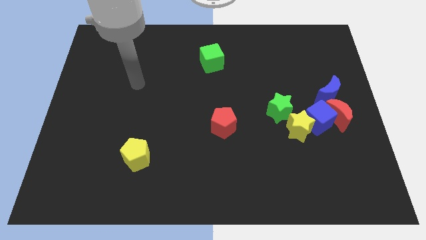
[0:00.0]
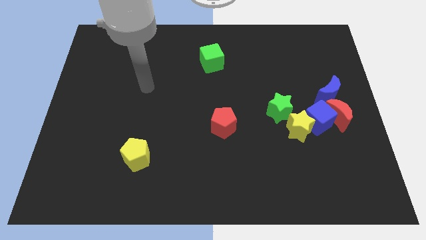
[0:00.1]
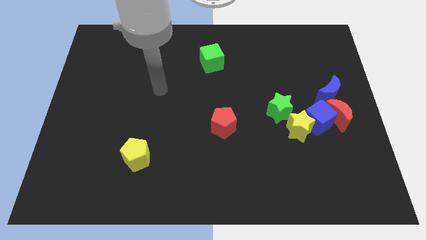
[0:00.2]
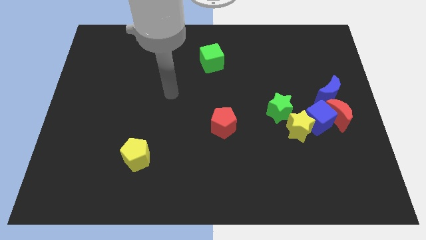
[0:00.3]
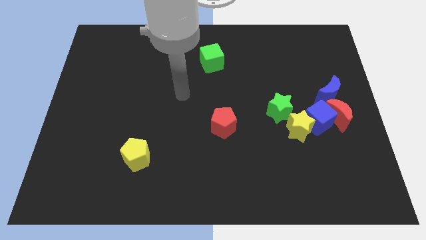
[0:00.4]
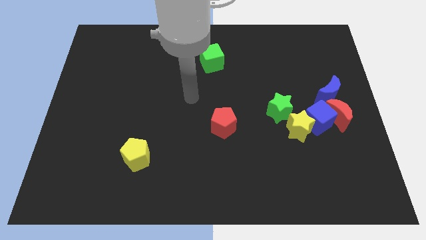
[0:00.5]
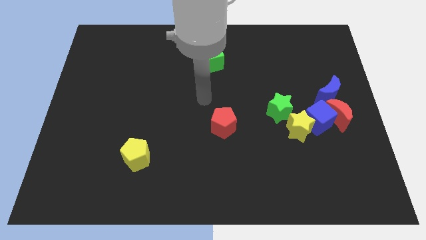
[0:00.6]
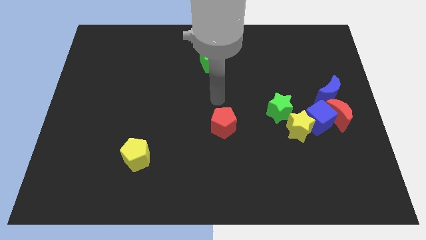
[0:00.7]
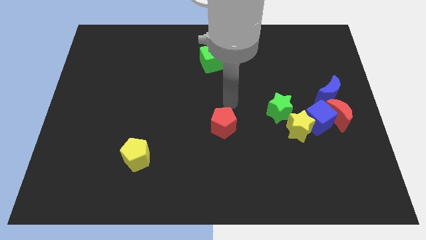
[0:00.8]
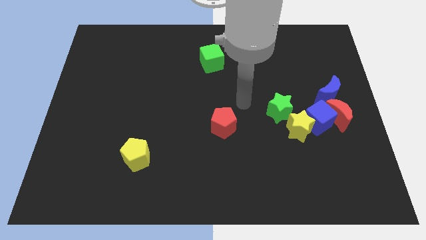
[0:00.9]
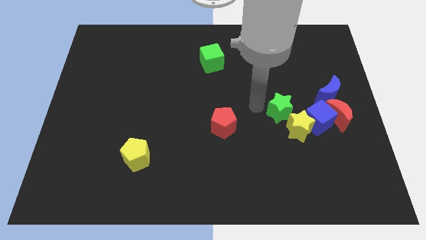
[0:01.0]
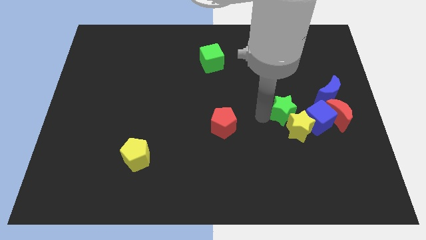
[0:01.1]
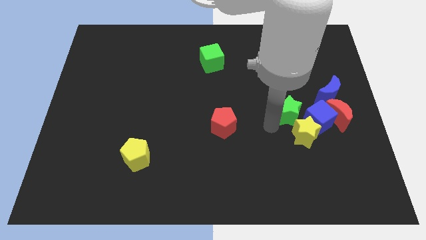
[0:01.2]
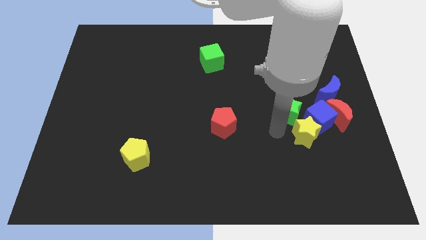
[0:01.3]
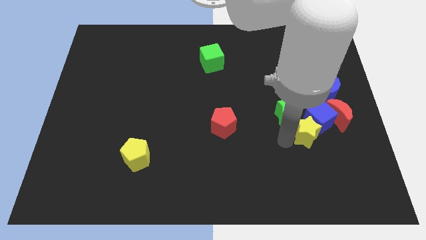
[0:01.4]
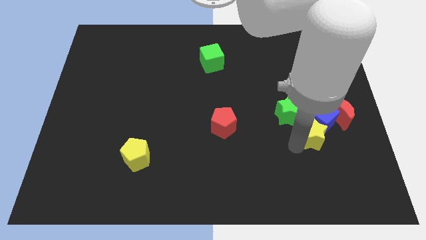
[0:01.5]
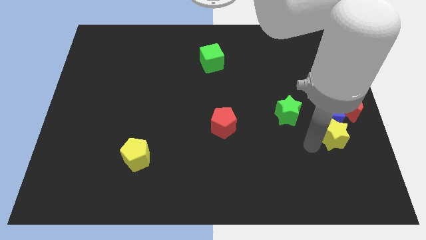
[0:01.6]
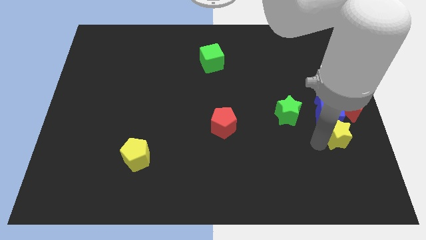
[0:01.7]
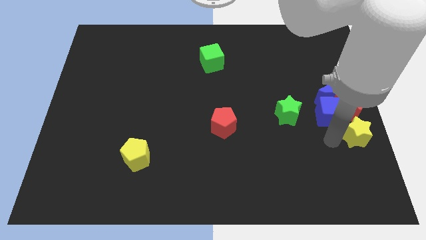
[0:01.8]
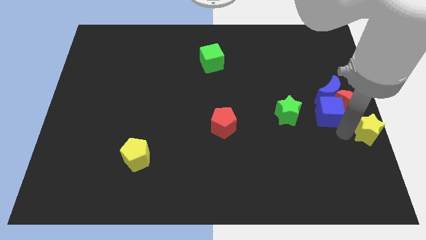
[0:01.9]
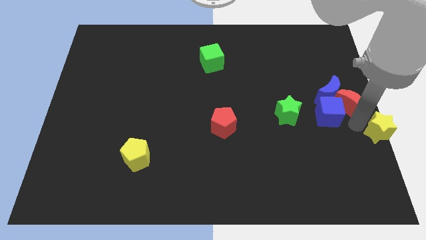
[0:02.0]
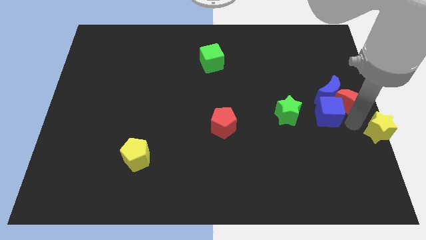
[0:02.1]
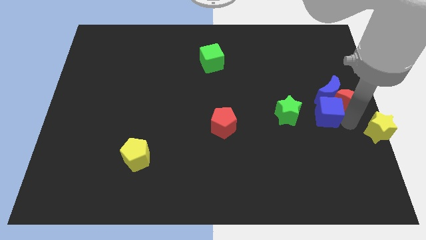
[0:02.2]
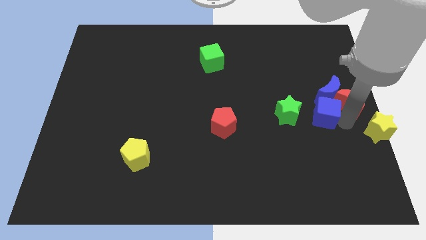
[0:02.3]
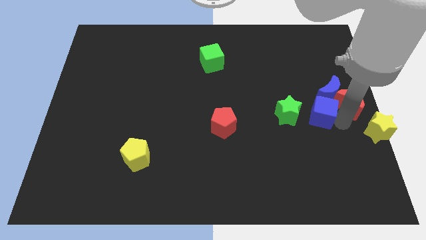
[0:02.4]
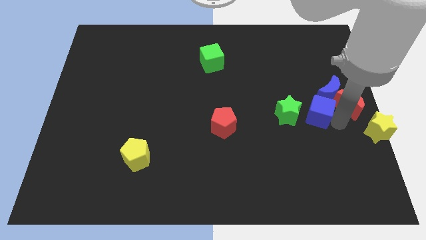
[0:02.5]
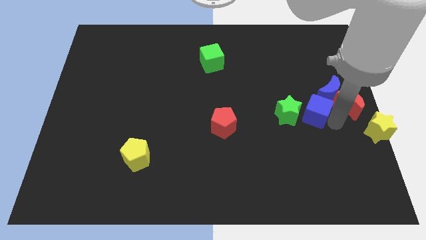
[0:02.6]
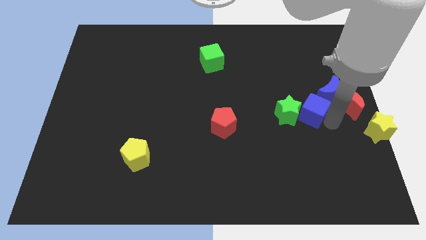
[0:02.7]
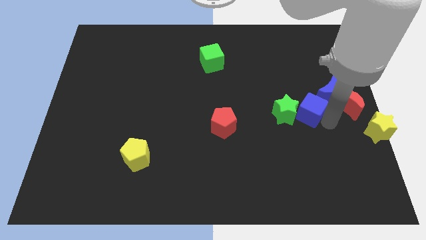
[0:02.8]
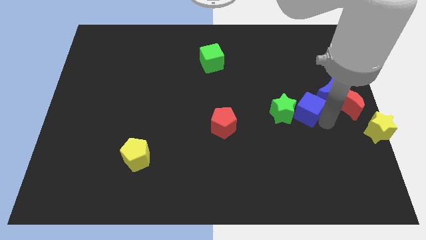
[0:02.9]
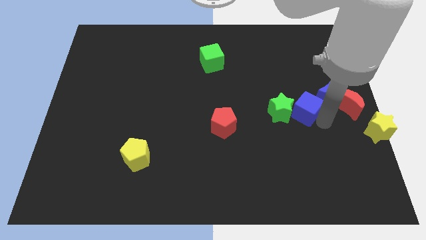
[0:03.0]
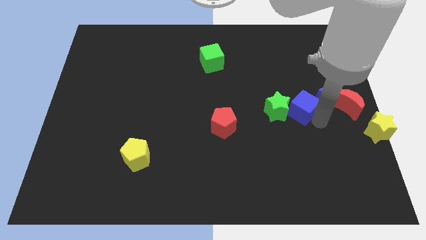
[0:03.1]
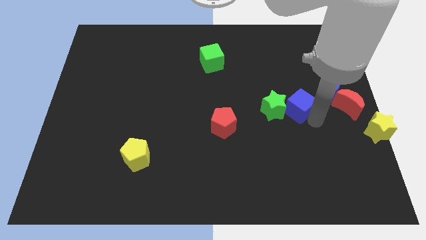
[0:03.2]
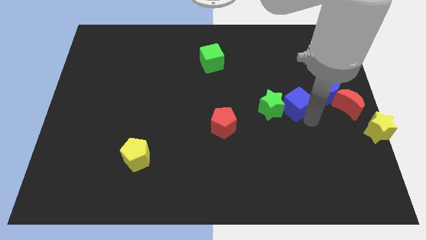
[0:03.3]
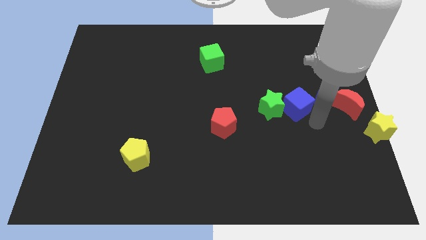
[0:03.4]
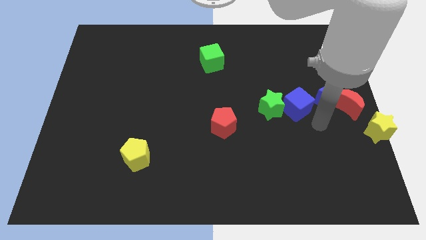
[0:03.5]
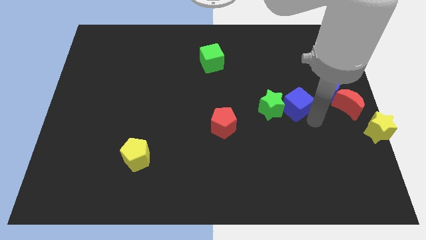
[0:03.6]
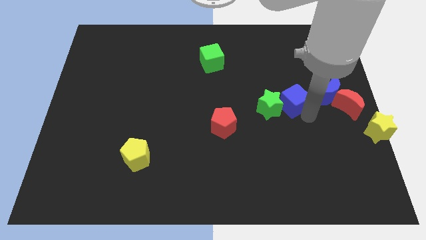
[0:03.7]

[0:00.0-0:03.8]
slide the blue cube up and left somewhat

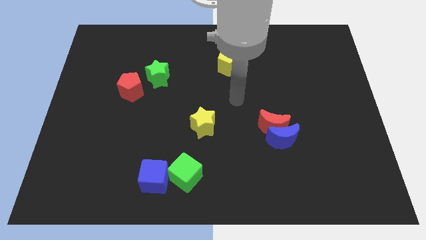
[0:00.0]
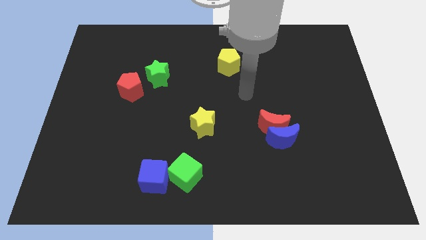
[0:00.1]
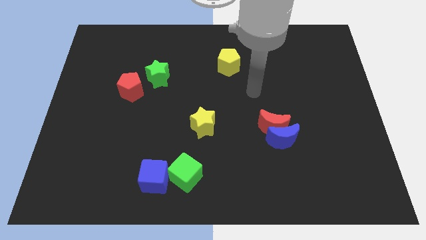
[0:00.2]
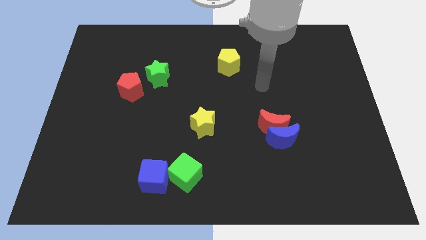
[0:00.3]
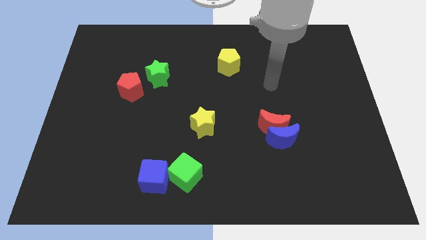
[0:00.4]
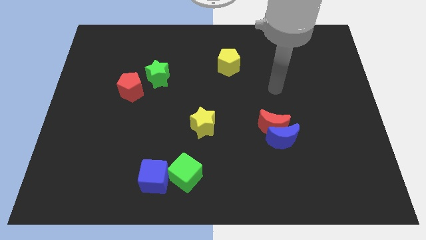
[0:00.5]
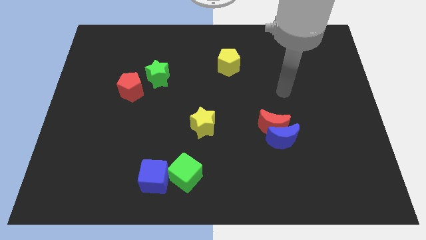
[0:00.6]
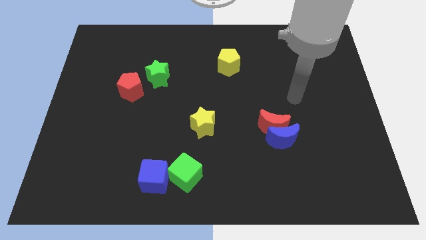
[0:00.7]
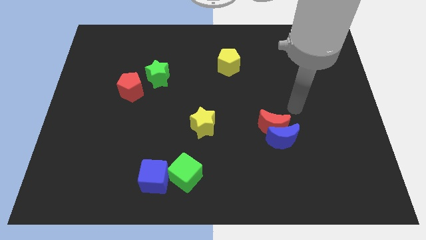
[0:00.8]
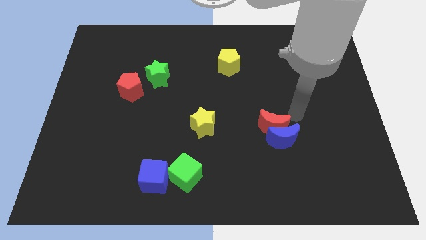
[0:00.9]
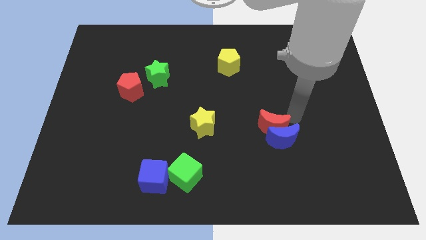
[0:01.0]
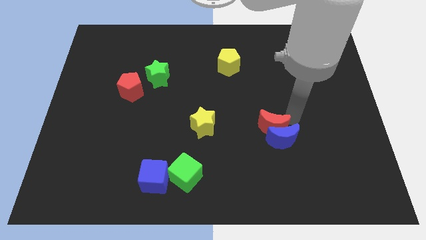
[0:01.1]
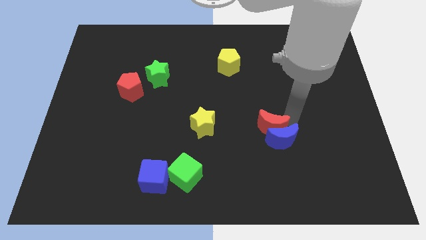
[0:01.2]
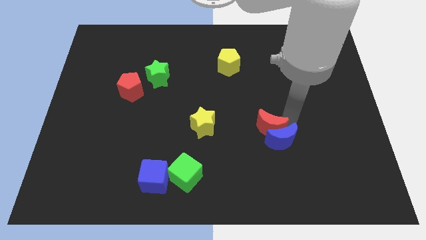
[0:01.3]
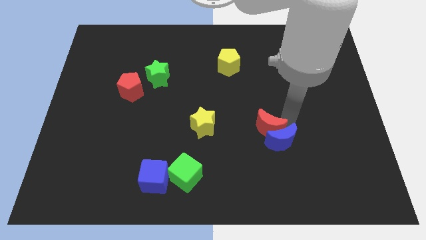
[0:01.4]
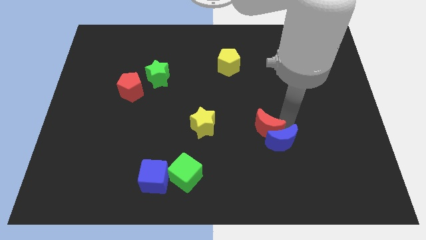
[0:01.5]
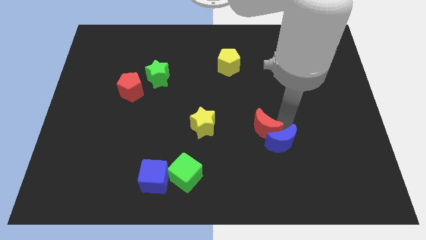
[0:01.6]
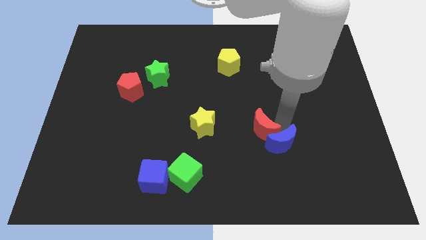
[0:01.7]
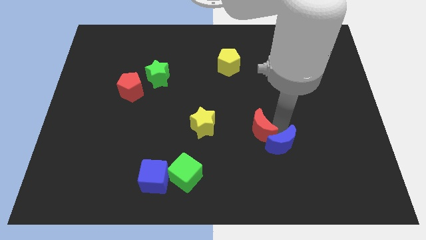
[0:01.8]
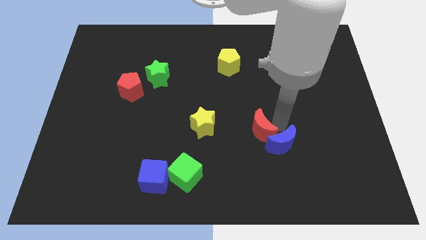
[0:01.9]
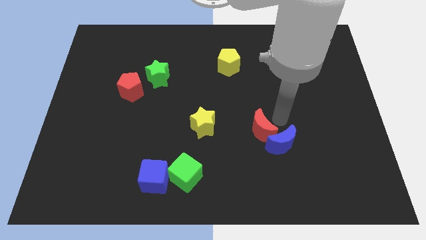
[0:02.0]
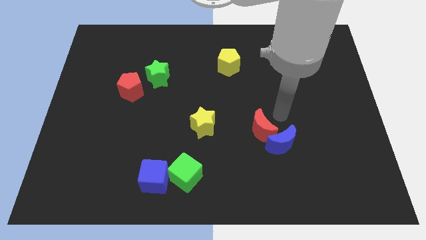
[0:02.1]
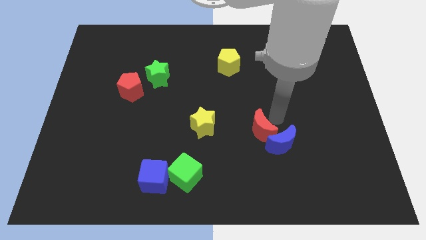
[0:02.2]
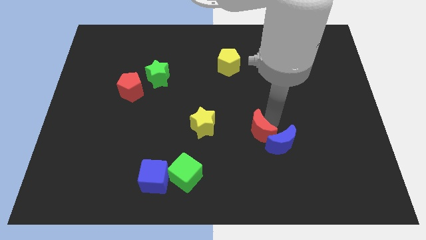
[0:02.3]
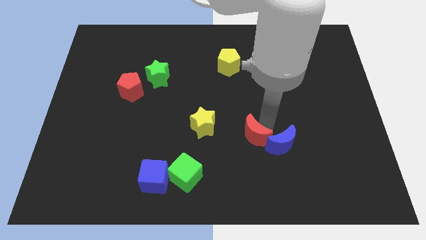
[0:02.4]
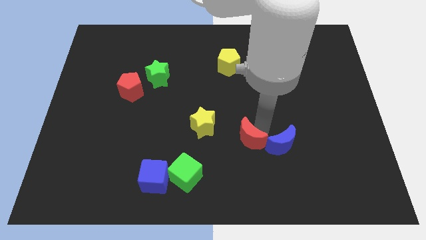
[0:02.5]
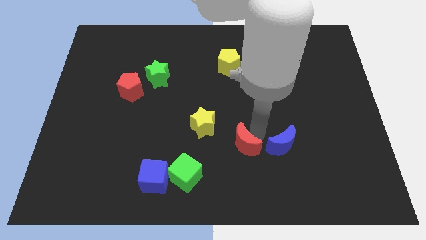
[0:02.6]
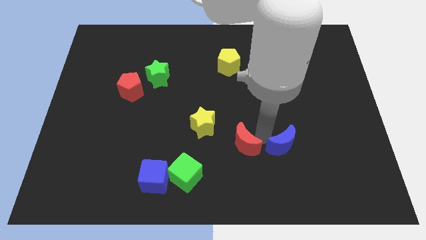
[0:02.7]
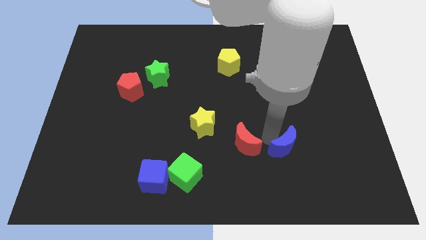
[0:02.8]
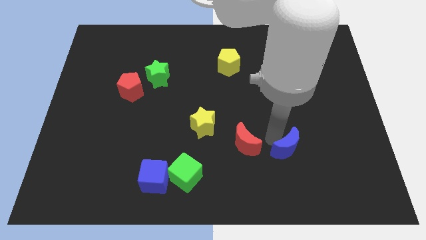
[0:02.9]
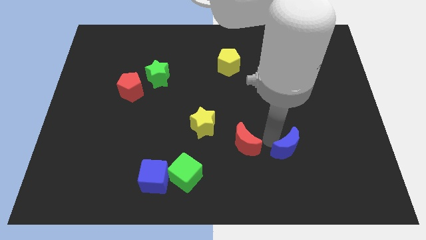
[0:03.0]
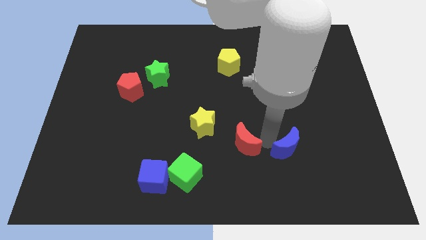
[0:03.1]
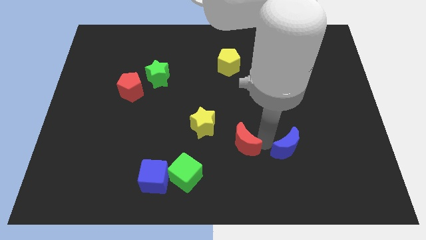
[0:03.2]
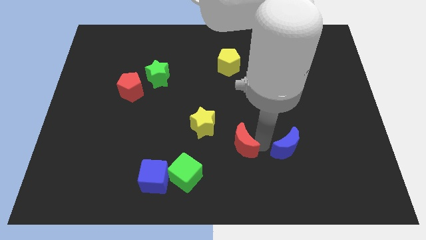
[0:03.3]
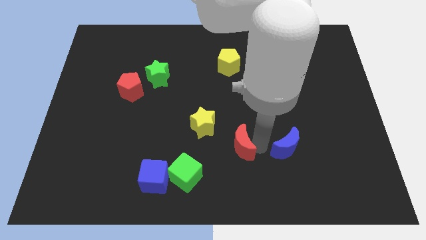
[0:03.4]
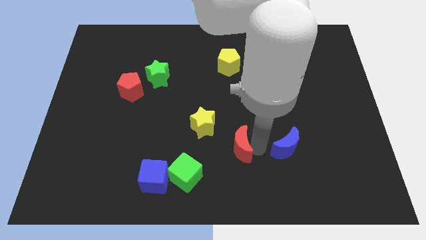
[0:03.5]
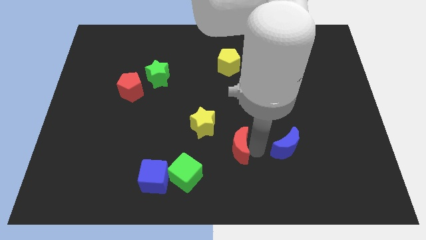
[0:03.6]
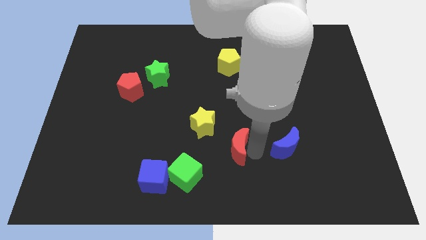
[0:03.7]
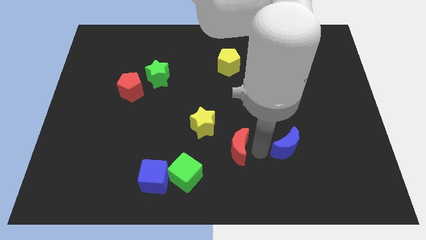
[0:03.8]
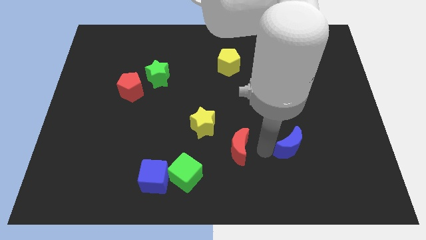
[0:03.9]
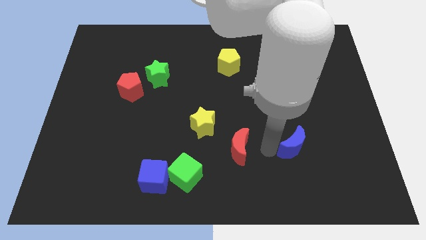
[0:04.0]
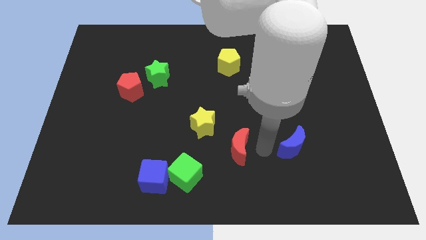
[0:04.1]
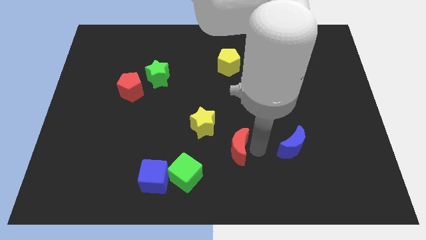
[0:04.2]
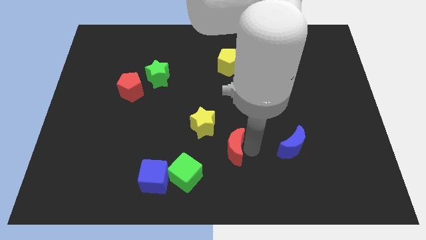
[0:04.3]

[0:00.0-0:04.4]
slightly move the red moon to the left

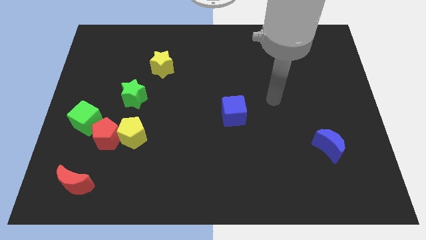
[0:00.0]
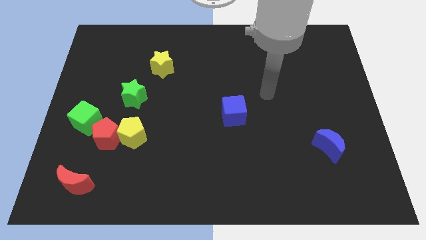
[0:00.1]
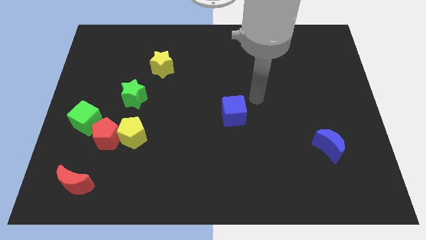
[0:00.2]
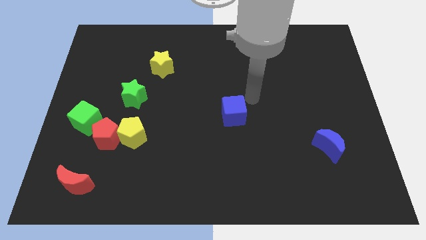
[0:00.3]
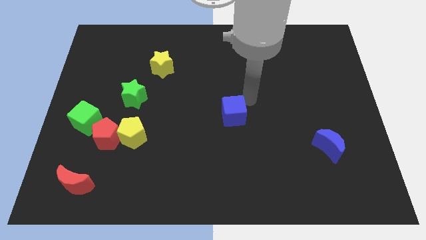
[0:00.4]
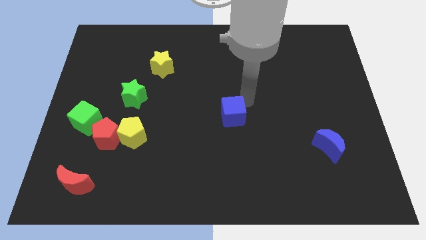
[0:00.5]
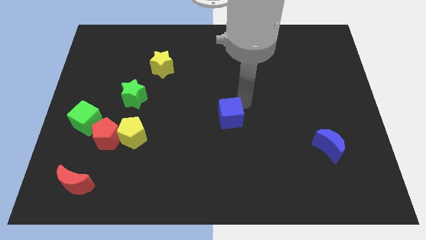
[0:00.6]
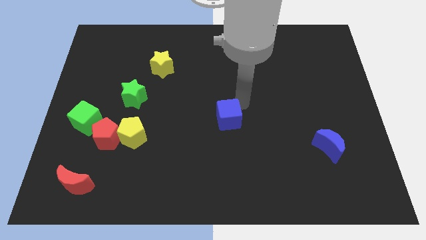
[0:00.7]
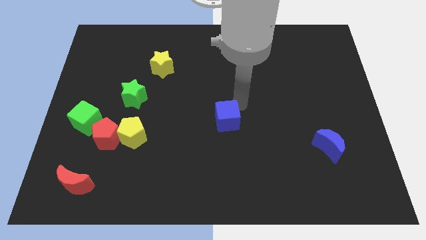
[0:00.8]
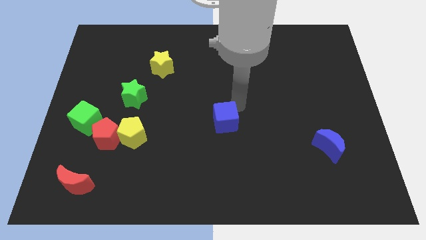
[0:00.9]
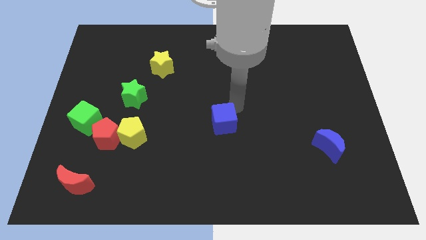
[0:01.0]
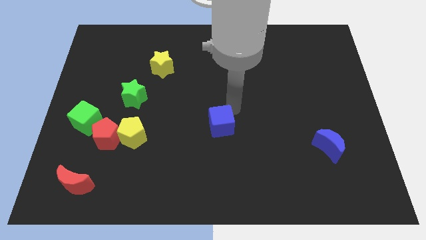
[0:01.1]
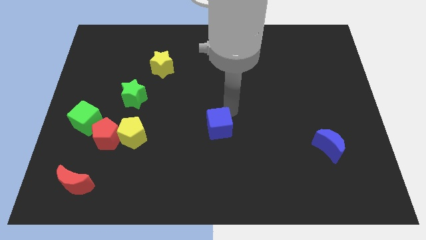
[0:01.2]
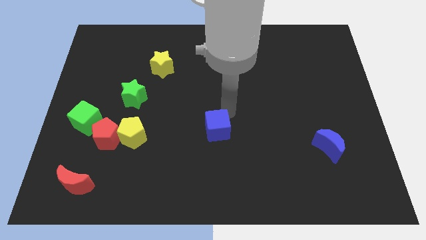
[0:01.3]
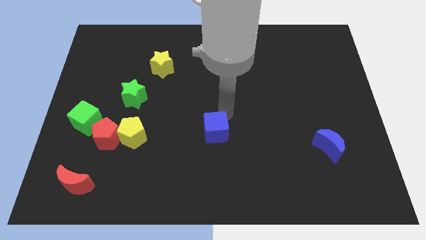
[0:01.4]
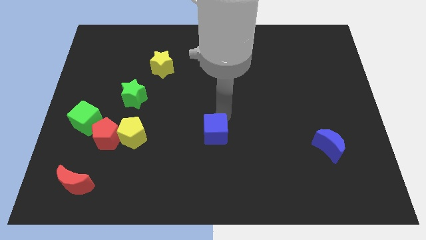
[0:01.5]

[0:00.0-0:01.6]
push the blue cube slightly down and left
